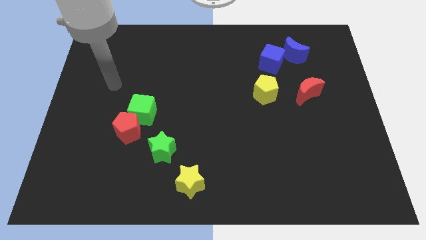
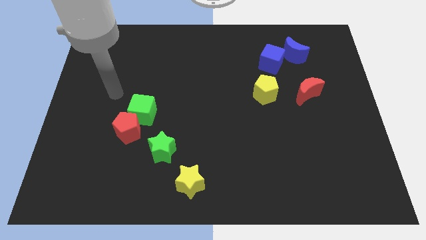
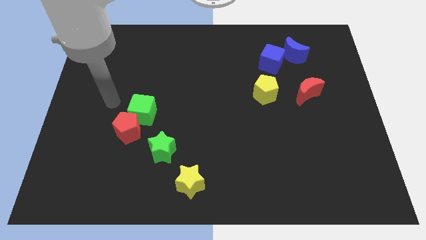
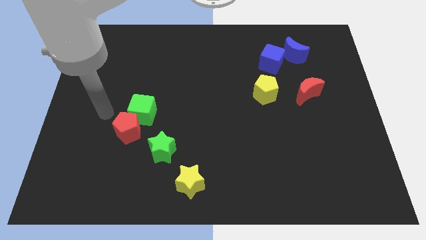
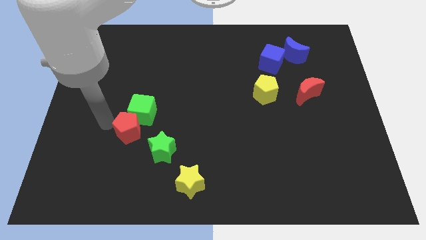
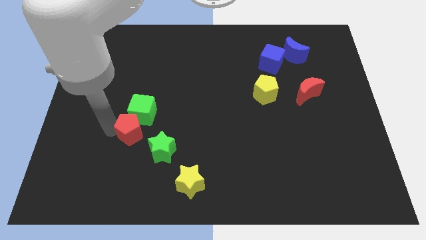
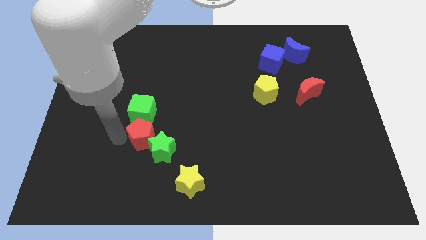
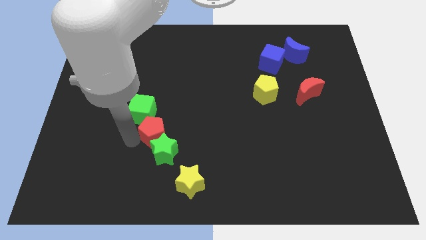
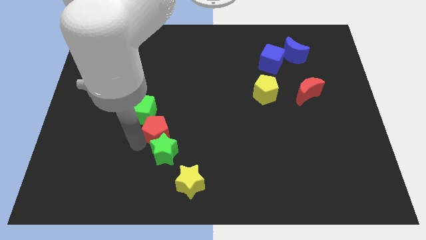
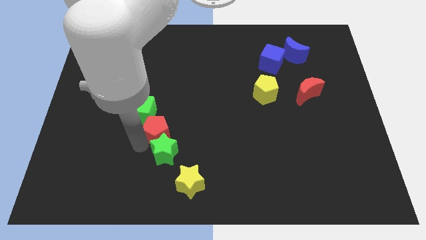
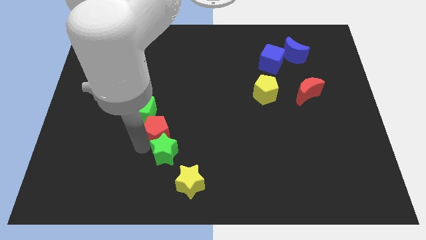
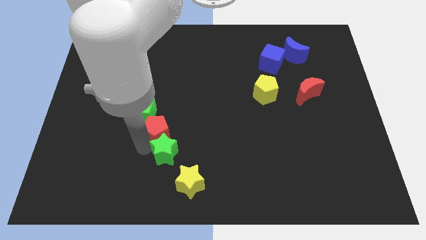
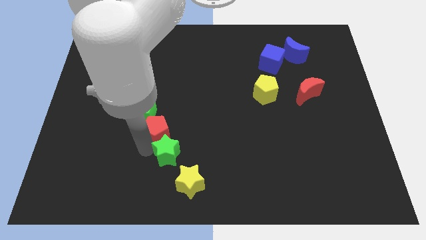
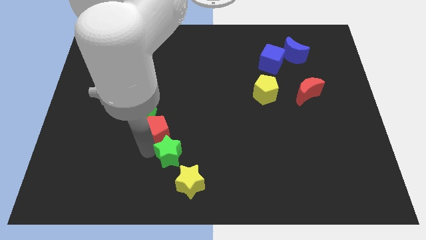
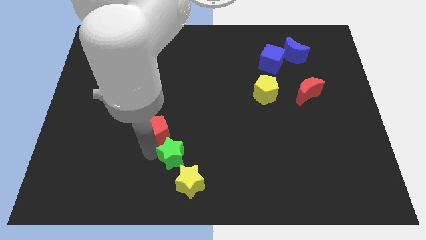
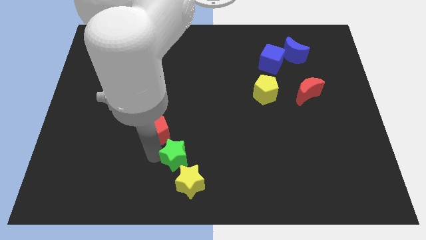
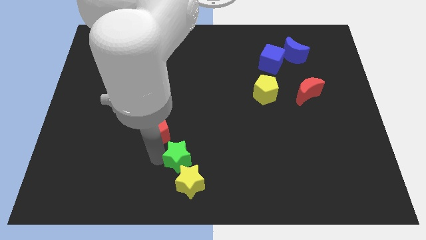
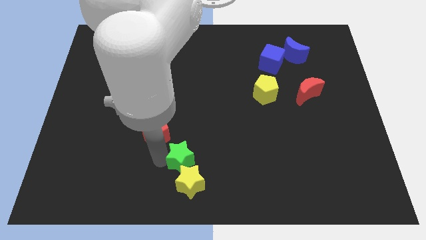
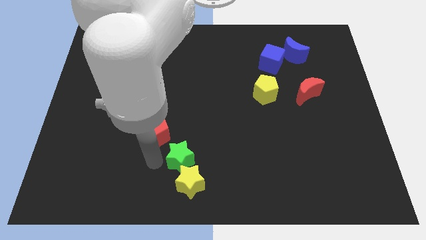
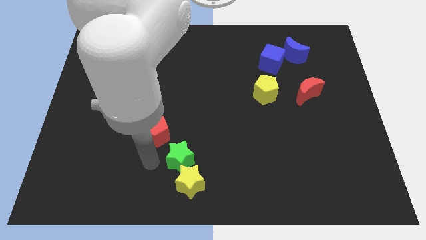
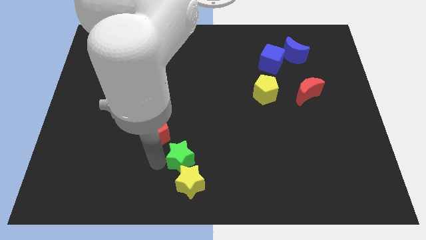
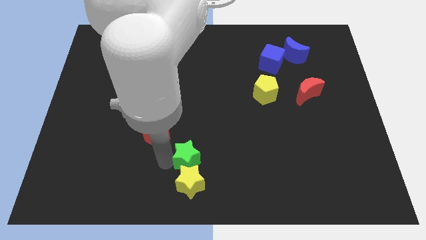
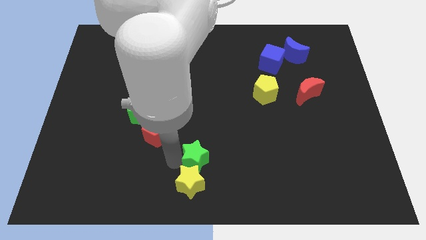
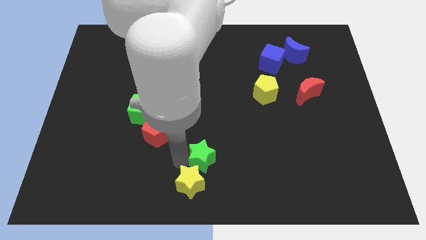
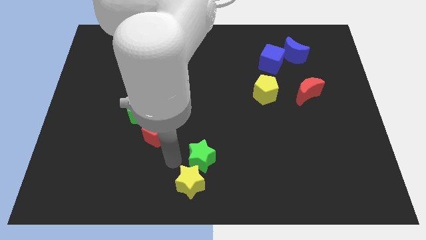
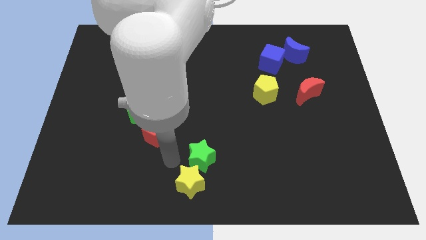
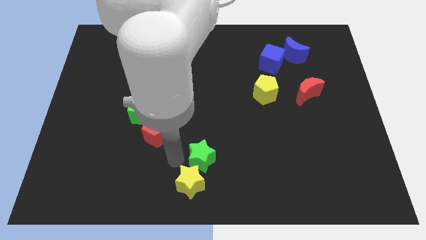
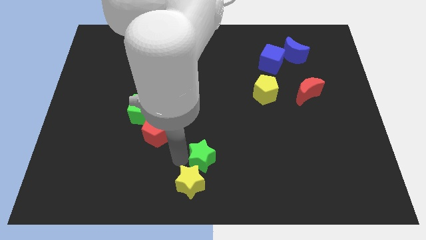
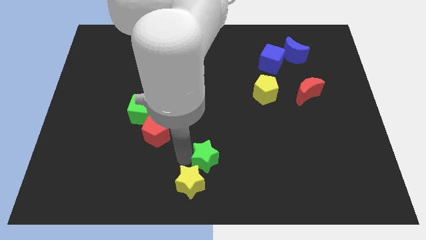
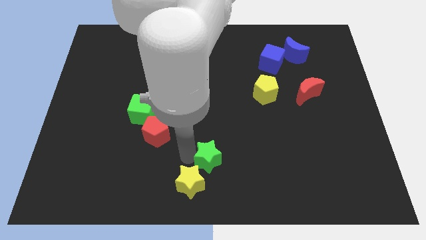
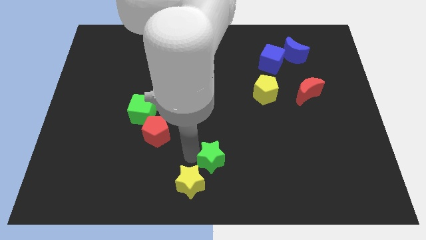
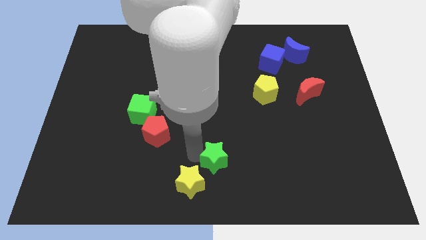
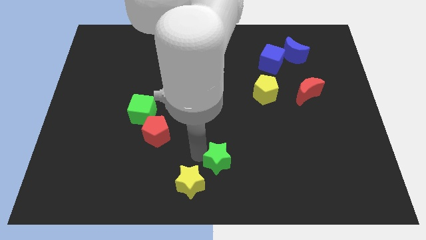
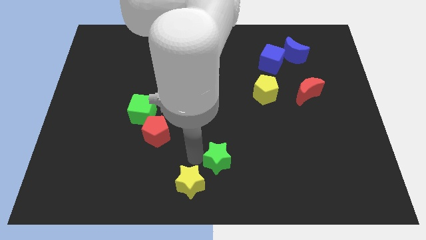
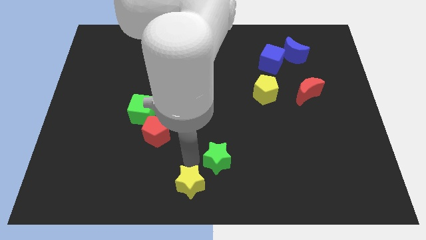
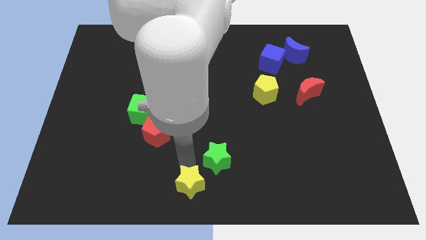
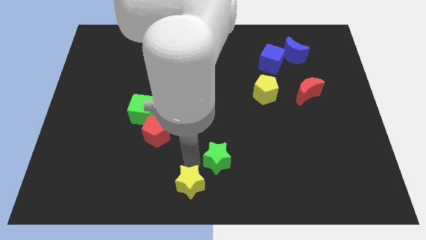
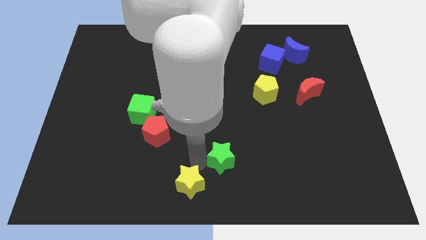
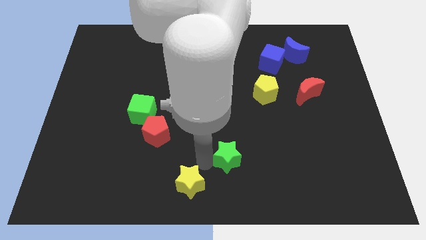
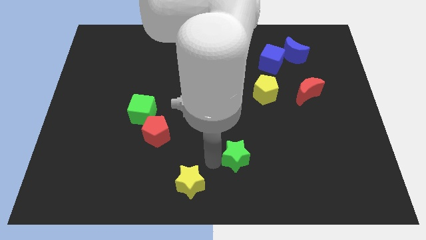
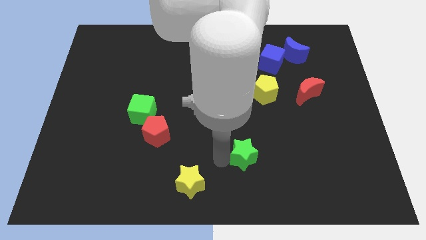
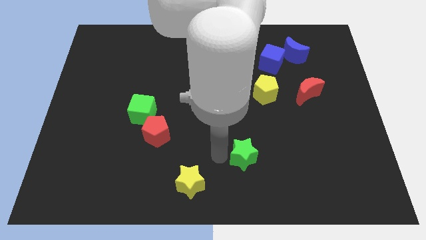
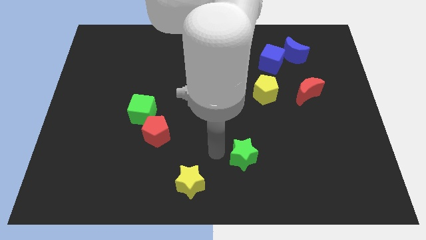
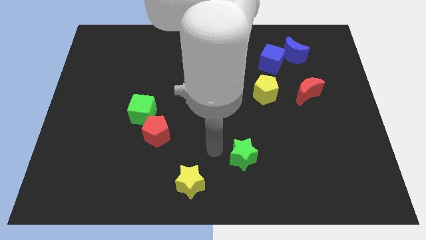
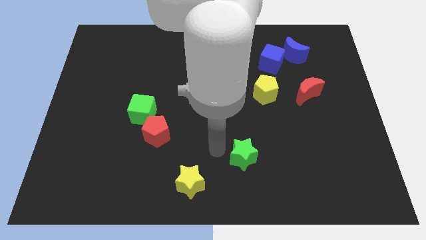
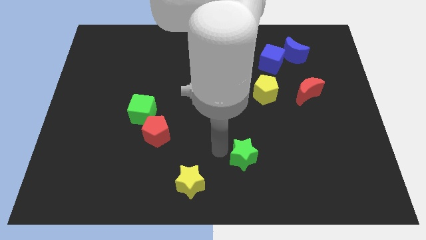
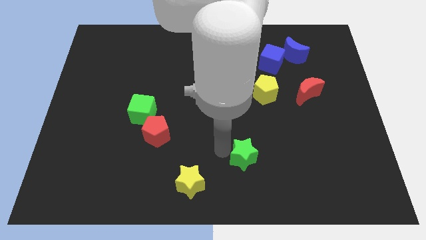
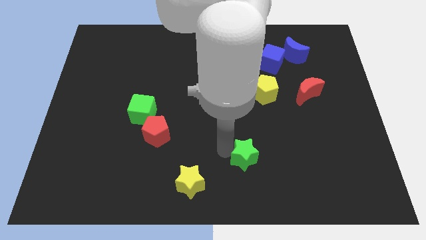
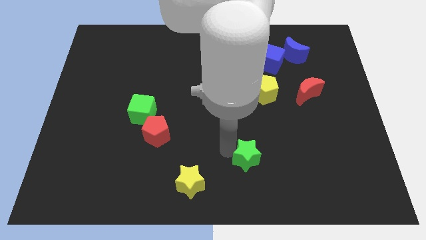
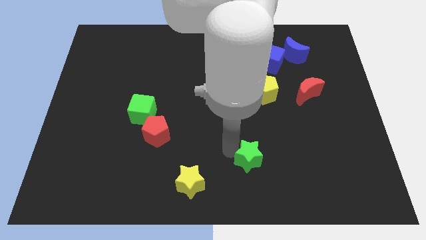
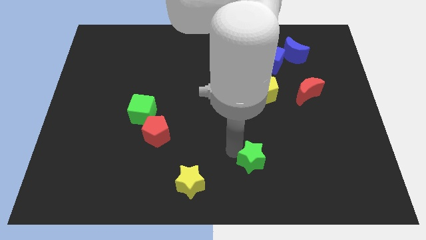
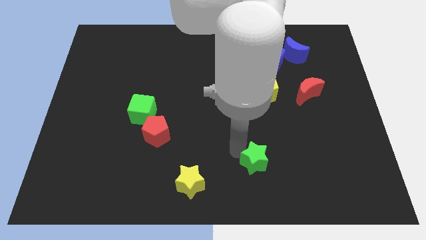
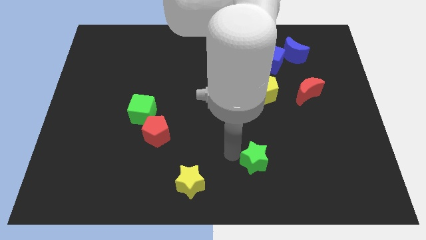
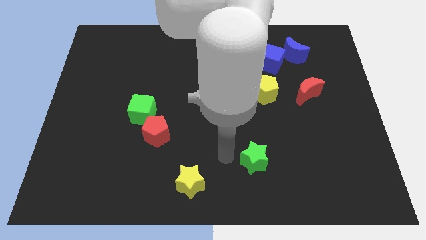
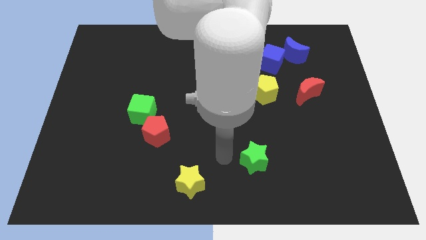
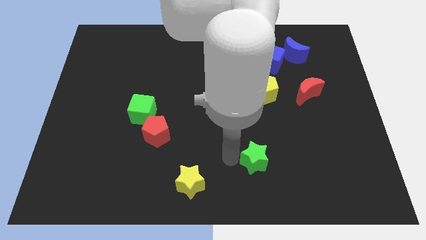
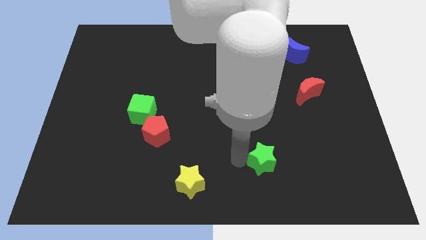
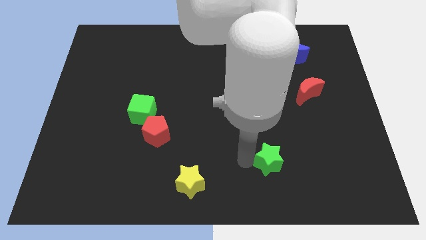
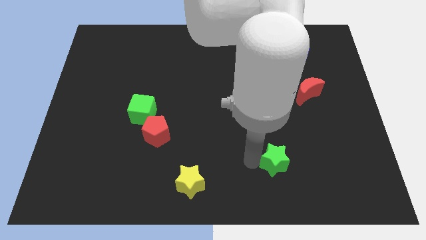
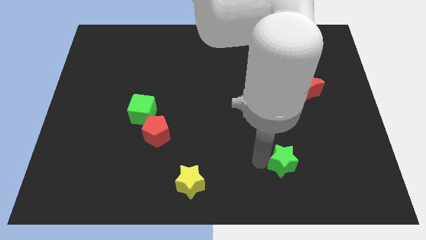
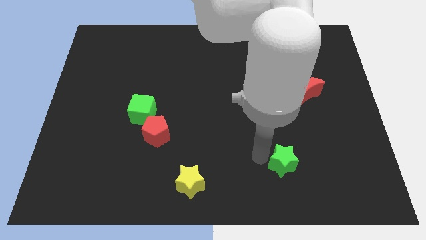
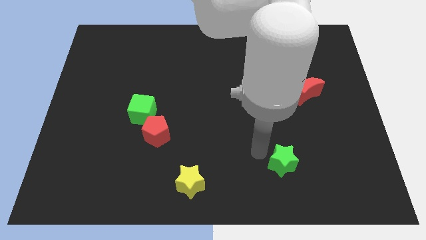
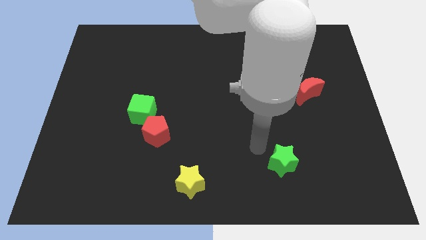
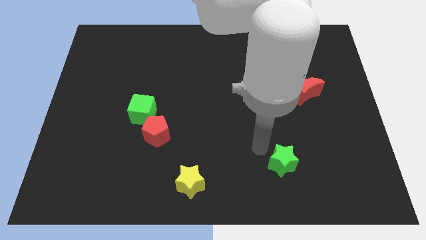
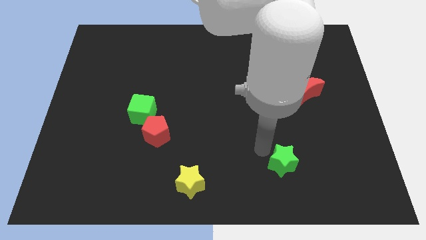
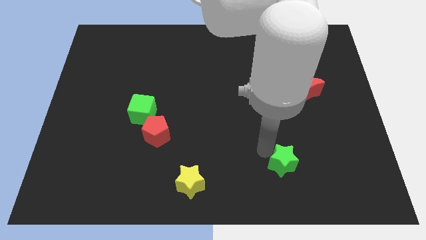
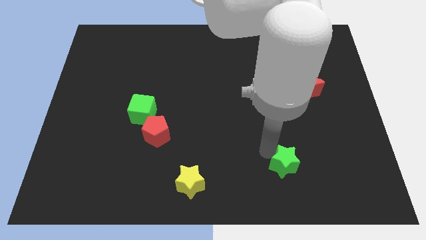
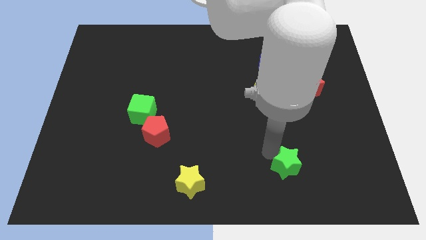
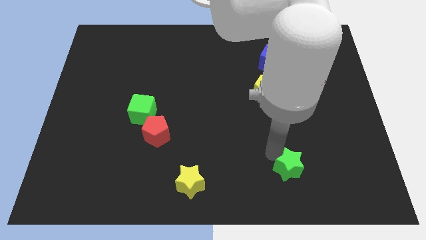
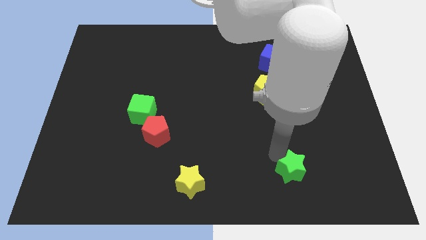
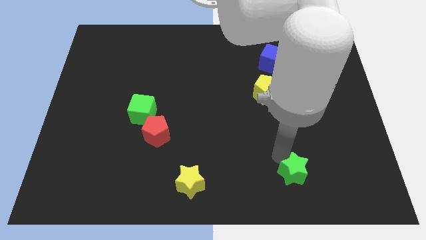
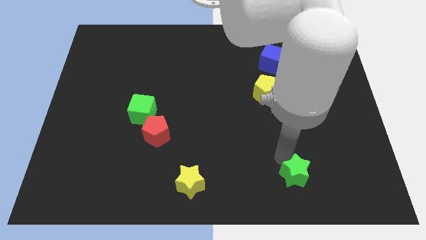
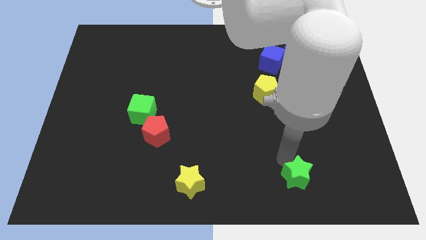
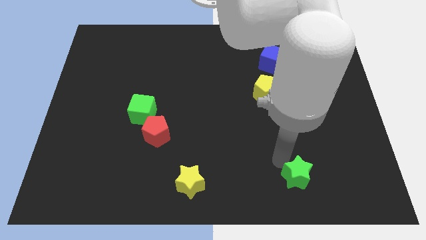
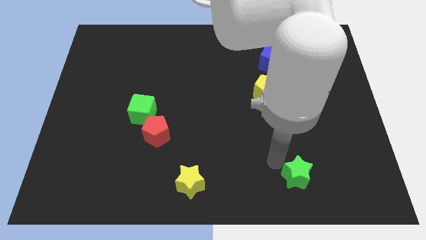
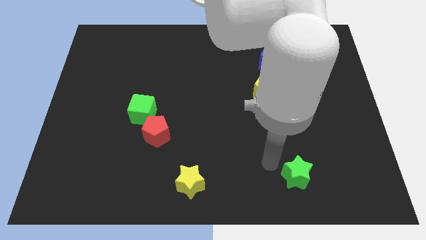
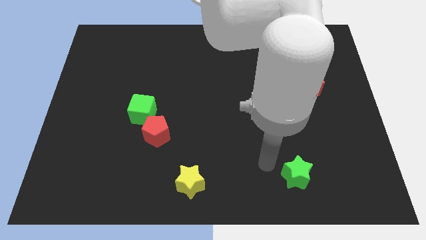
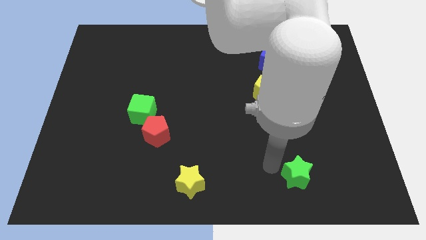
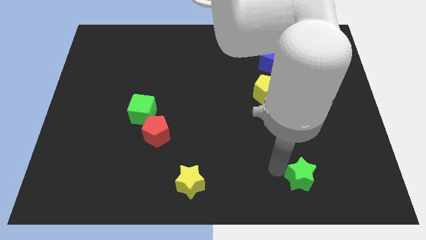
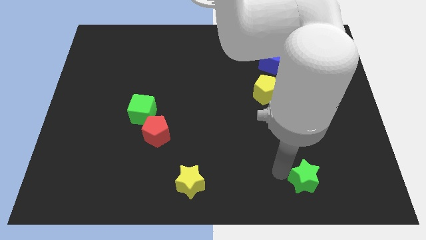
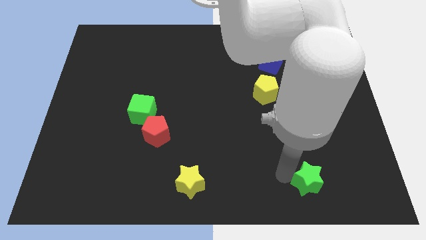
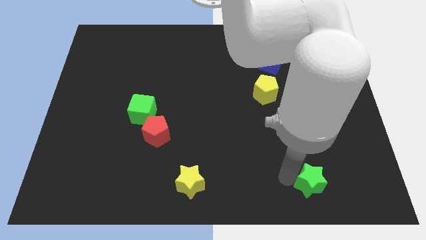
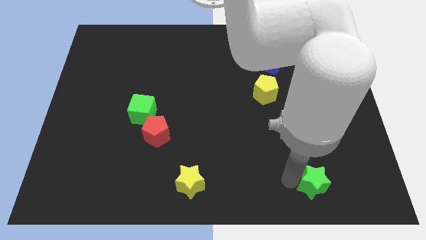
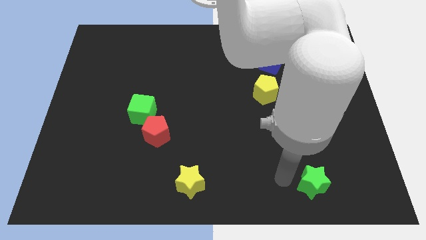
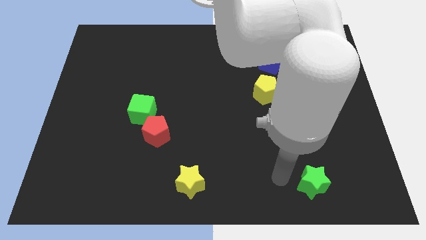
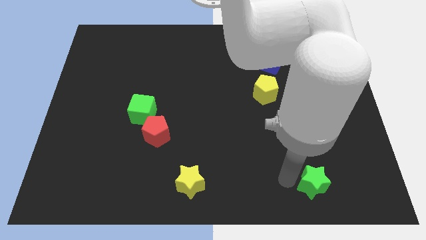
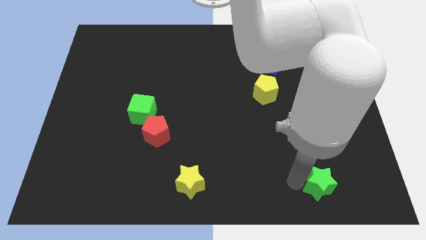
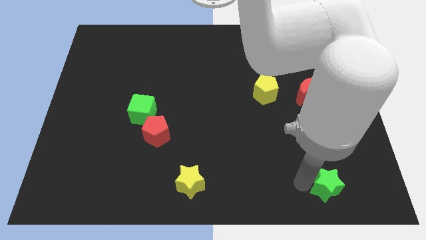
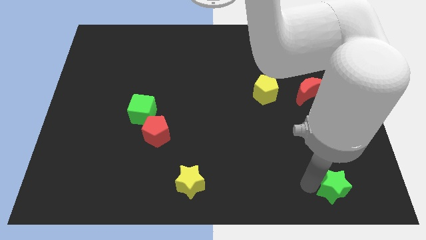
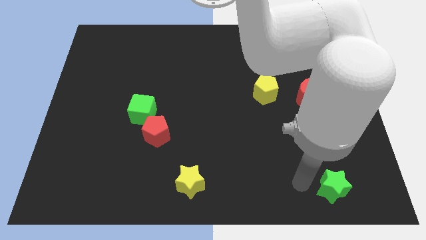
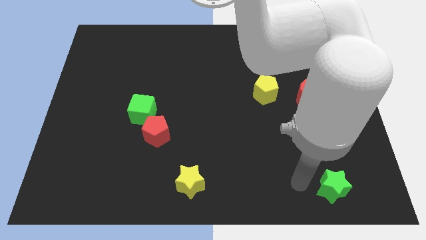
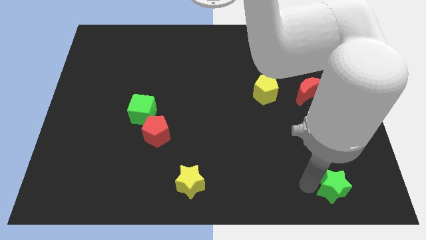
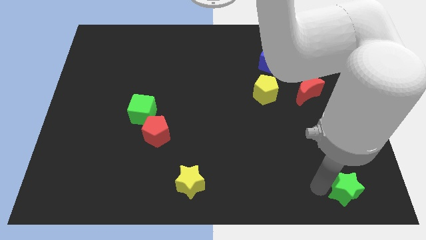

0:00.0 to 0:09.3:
slide the green star to the lower right corner
